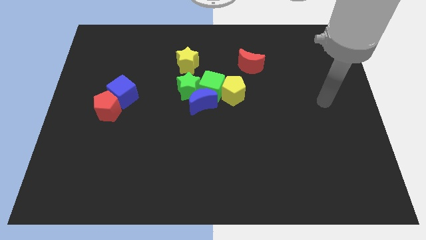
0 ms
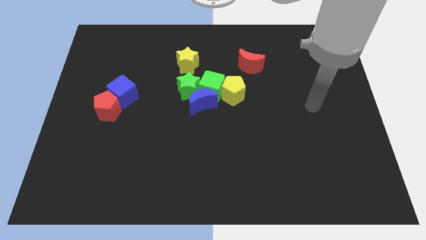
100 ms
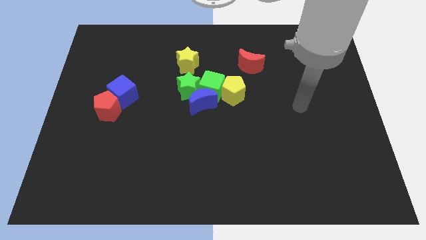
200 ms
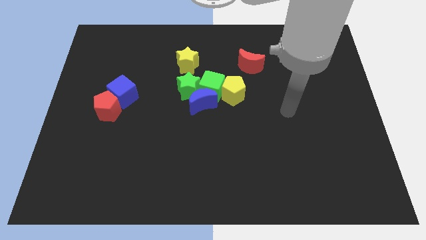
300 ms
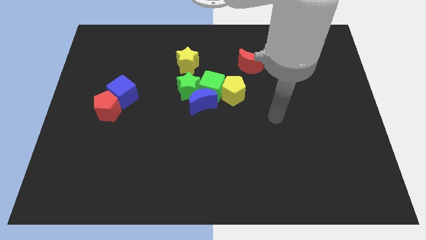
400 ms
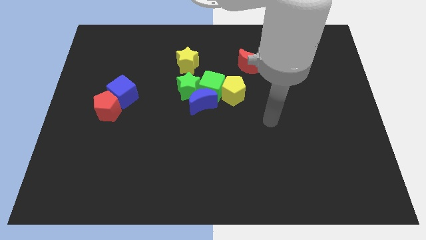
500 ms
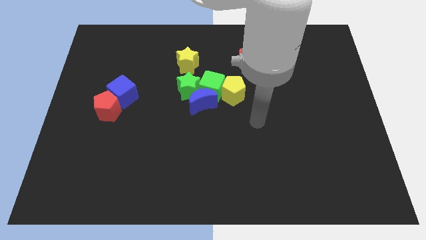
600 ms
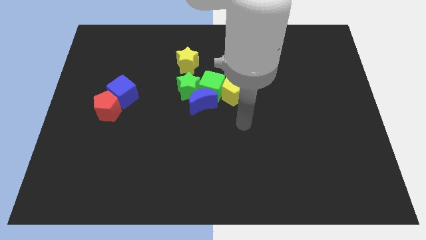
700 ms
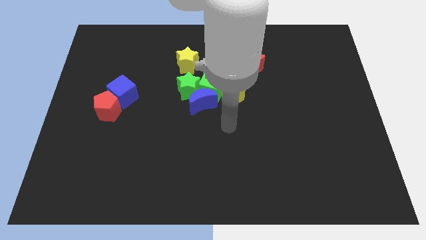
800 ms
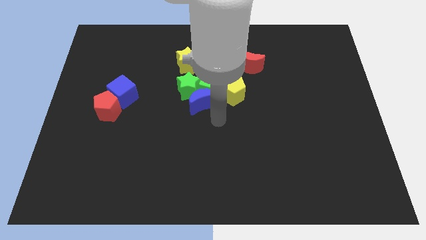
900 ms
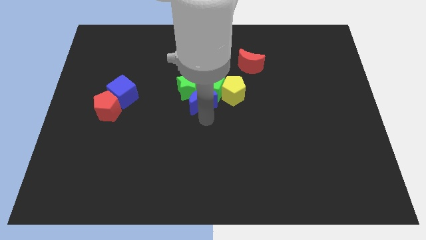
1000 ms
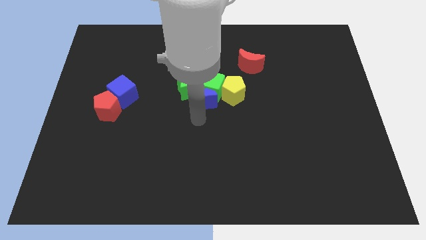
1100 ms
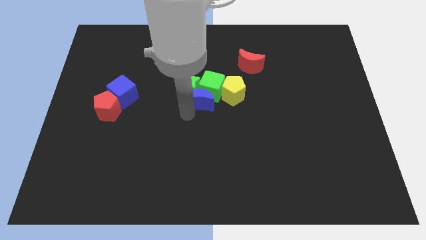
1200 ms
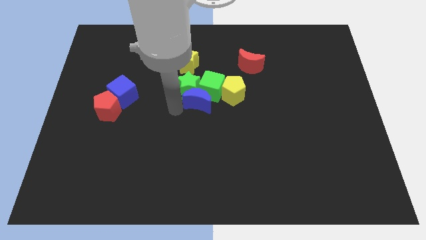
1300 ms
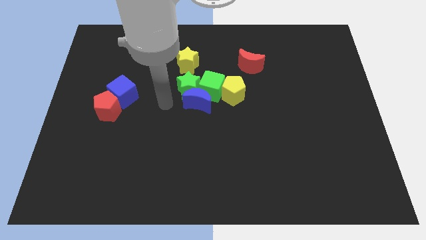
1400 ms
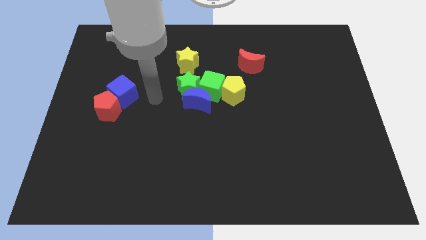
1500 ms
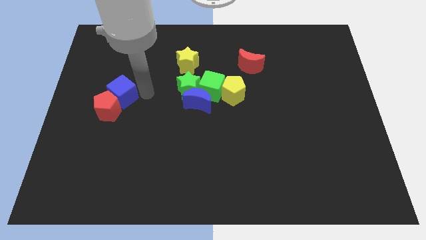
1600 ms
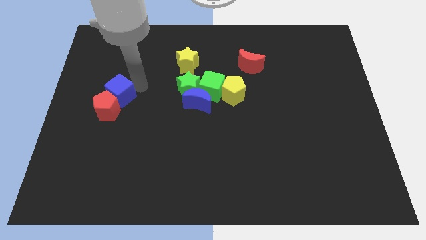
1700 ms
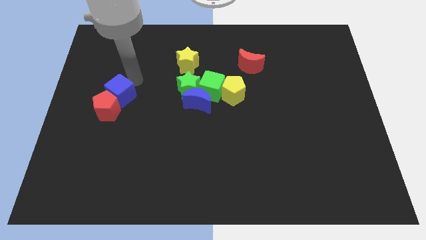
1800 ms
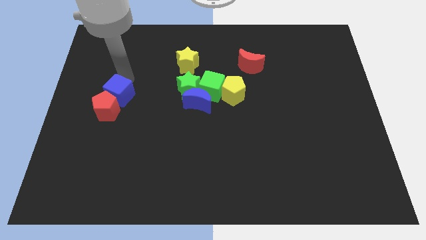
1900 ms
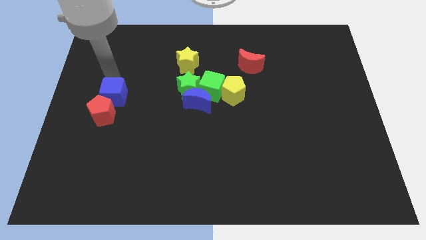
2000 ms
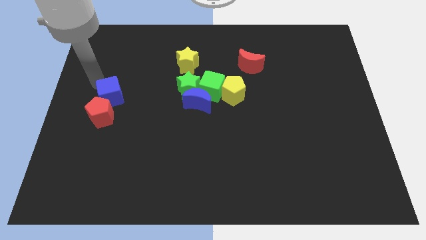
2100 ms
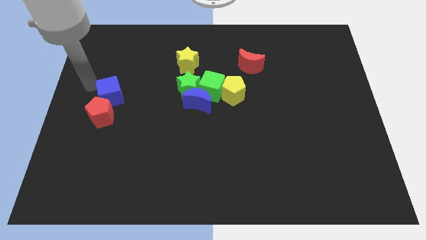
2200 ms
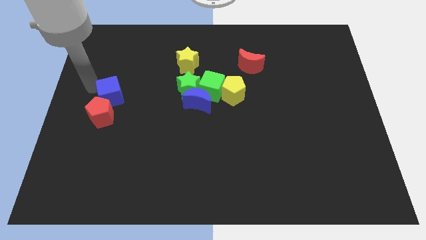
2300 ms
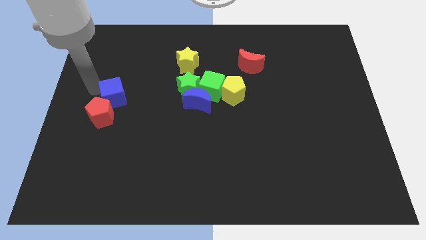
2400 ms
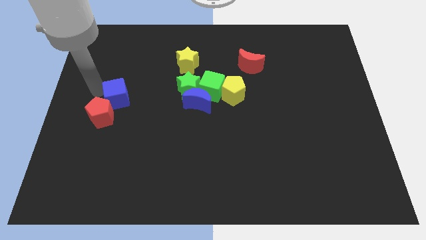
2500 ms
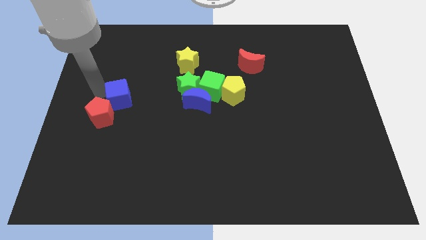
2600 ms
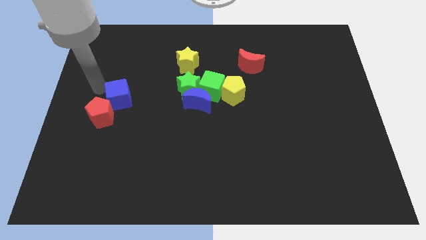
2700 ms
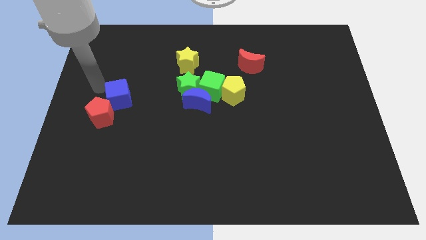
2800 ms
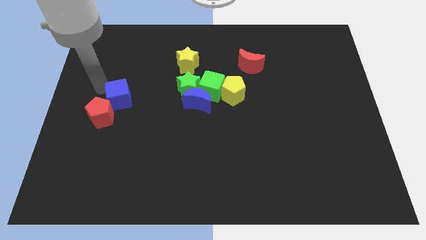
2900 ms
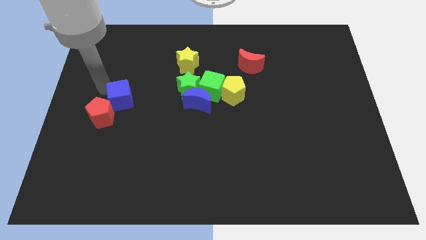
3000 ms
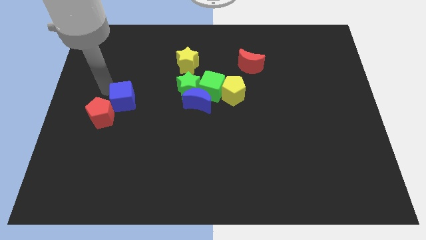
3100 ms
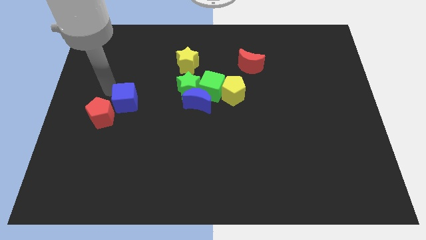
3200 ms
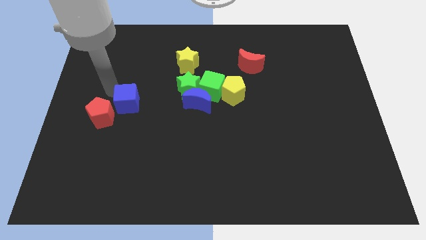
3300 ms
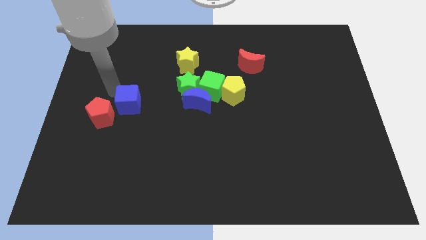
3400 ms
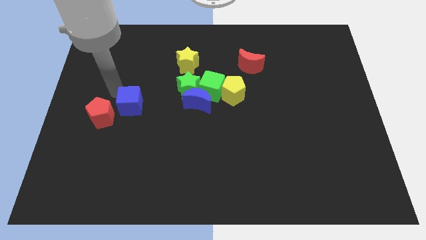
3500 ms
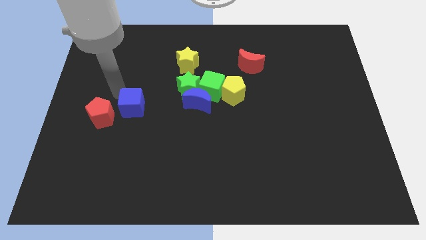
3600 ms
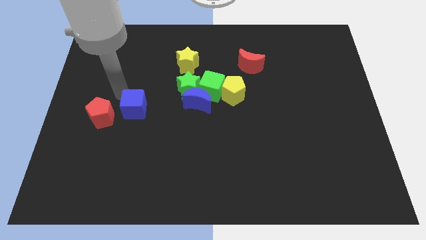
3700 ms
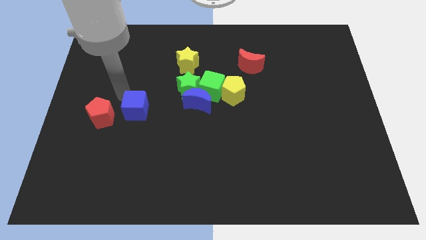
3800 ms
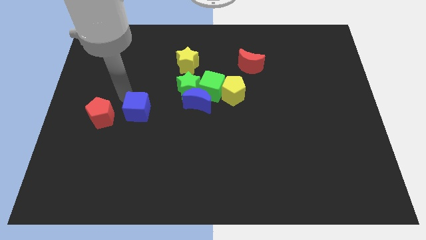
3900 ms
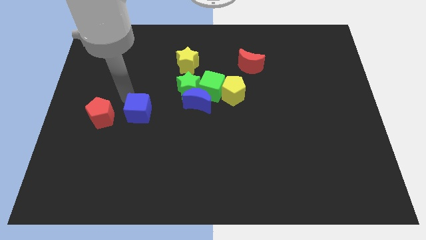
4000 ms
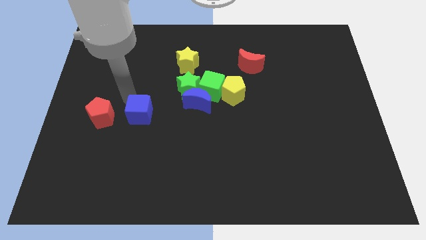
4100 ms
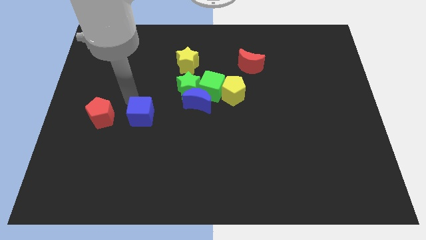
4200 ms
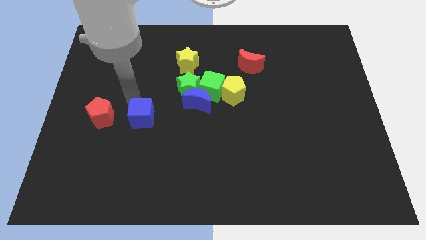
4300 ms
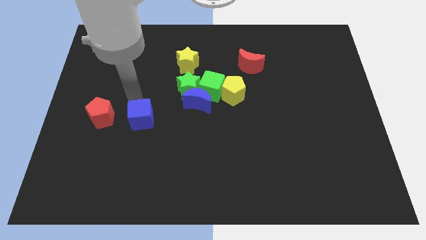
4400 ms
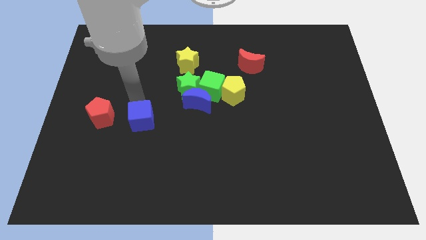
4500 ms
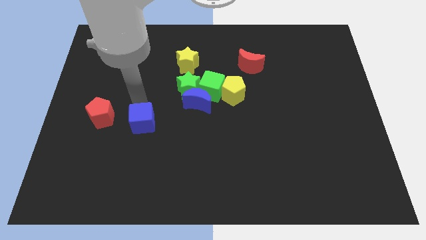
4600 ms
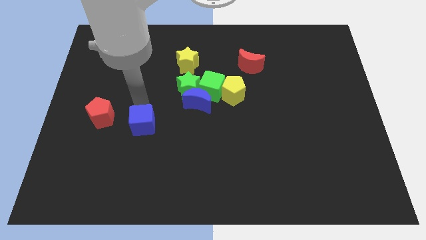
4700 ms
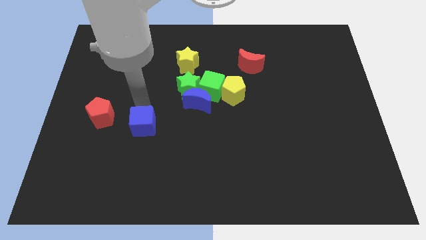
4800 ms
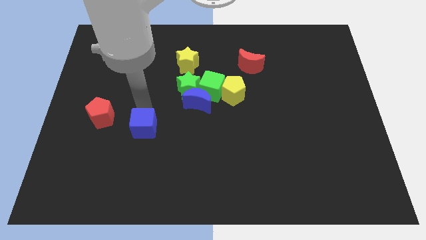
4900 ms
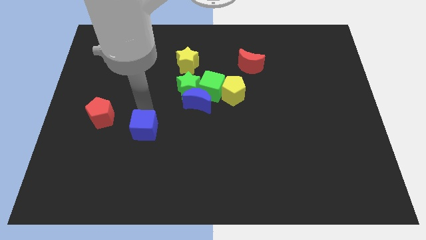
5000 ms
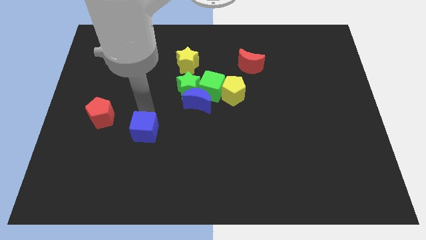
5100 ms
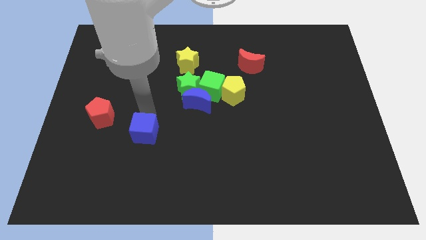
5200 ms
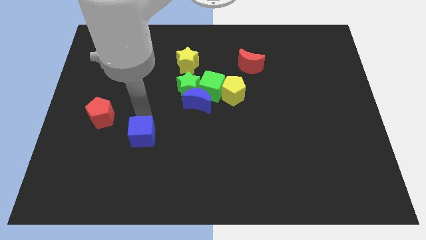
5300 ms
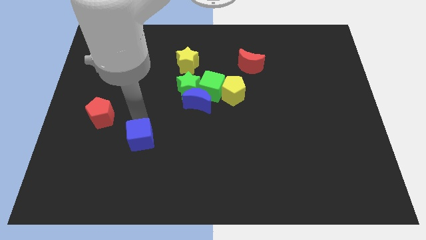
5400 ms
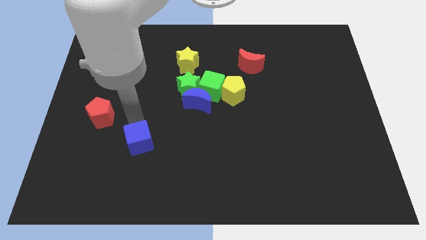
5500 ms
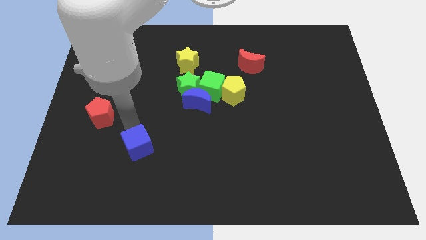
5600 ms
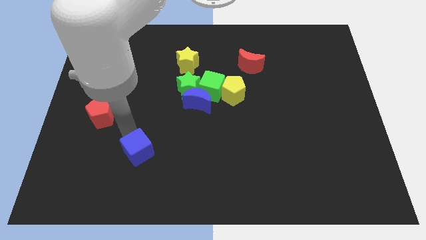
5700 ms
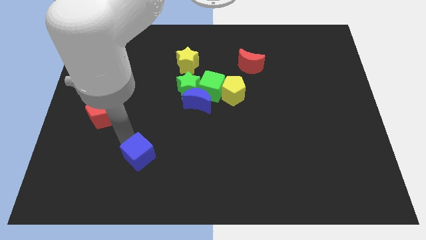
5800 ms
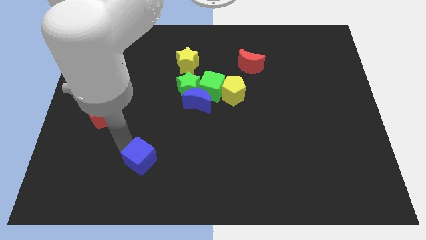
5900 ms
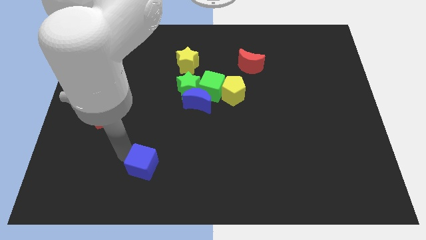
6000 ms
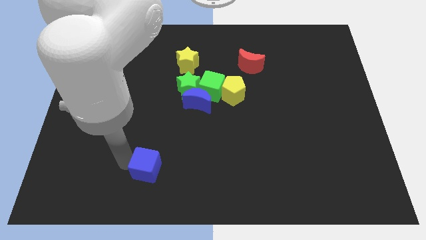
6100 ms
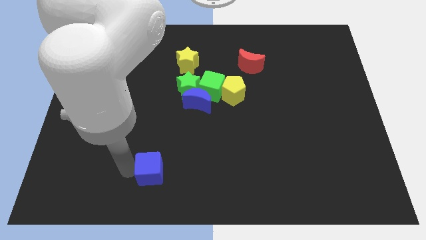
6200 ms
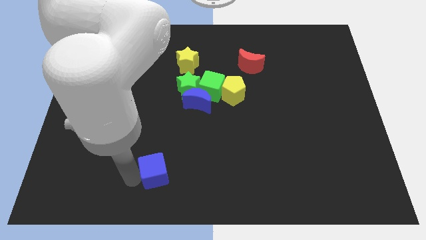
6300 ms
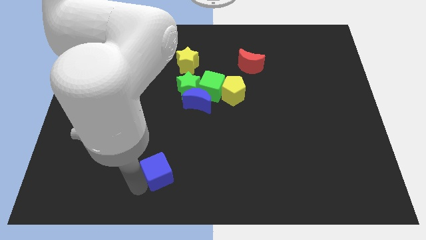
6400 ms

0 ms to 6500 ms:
move the blue cube down and right diagonally

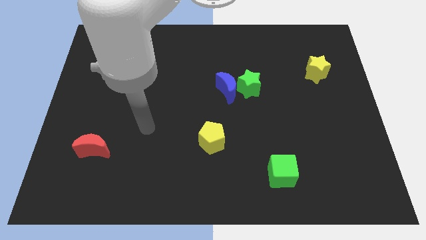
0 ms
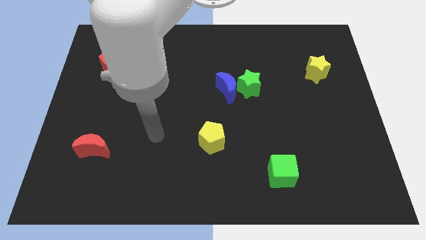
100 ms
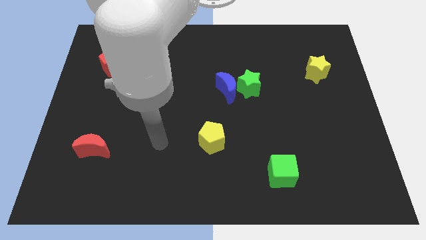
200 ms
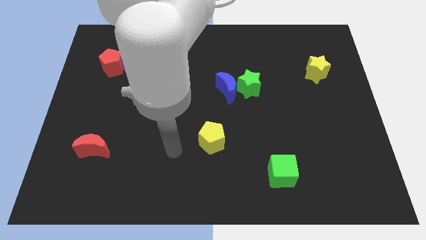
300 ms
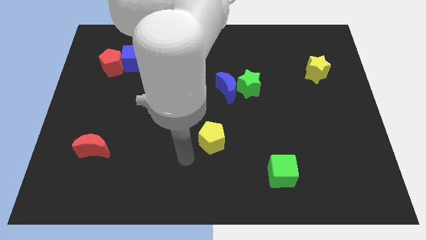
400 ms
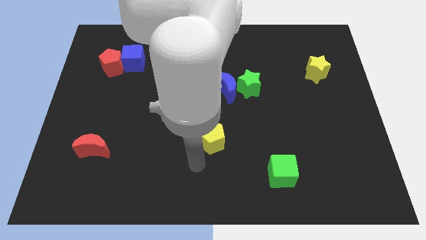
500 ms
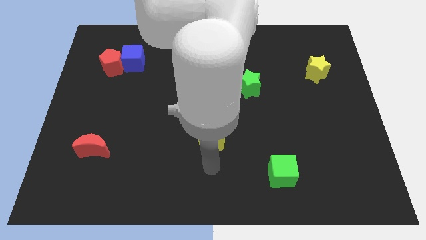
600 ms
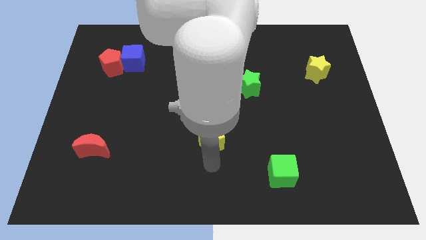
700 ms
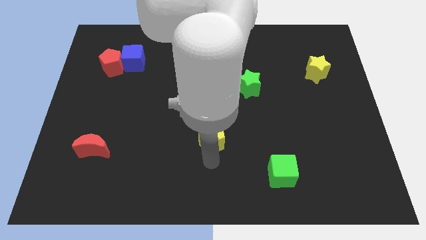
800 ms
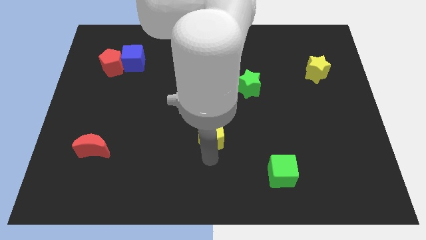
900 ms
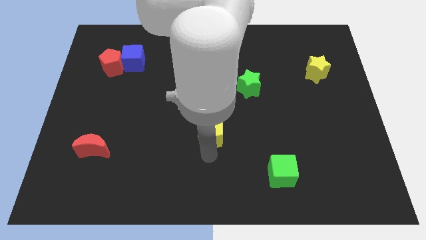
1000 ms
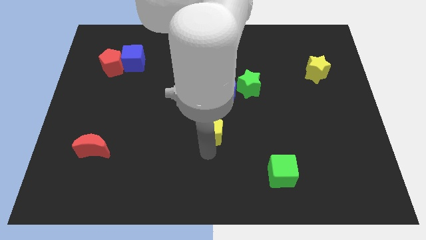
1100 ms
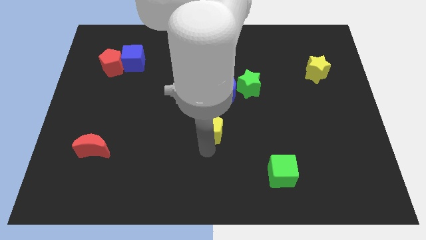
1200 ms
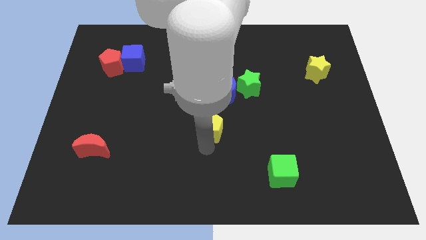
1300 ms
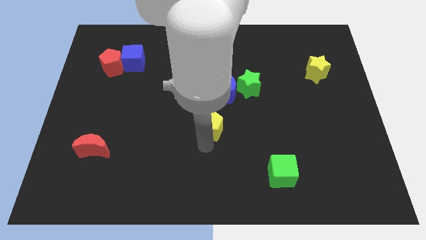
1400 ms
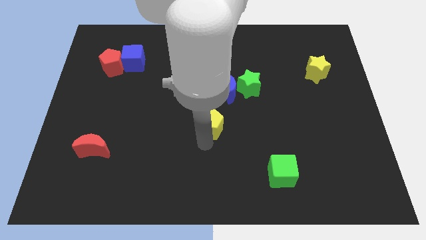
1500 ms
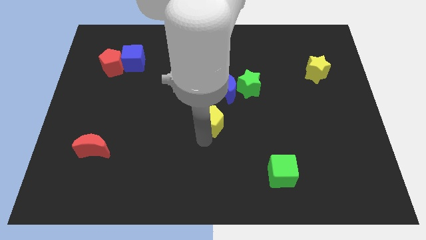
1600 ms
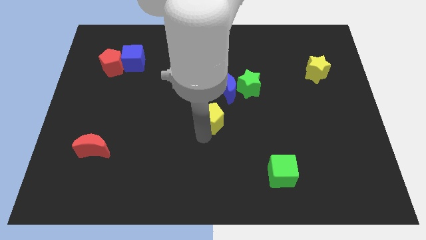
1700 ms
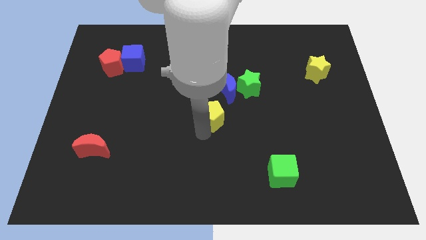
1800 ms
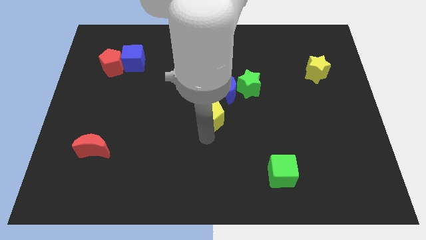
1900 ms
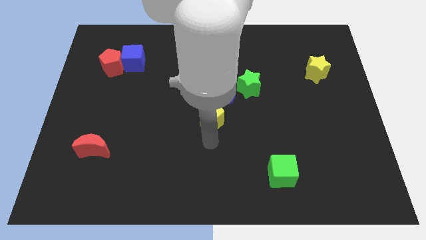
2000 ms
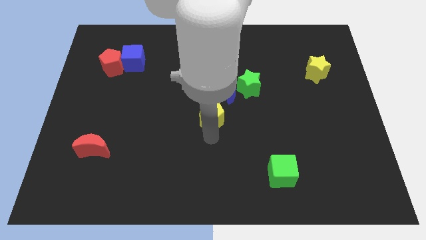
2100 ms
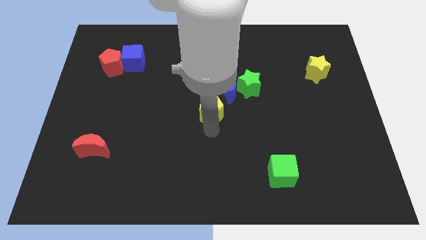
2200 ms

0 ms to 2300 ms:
move the yellow pentagon up a little
